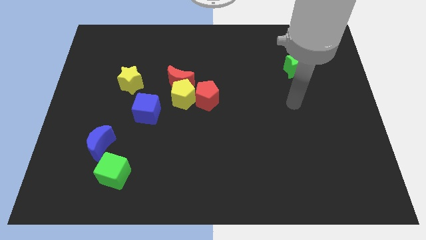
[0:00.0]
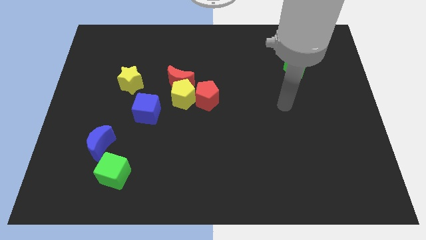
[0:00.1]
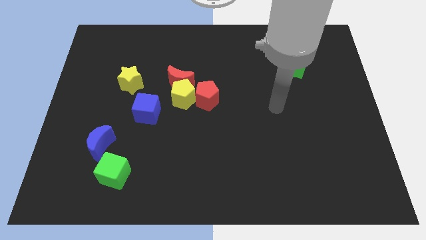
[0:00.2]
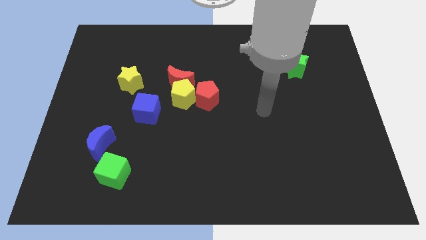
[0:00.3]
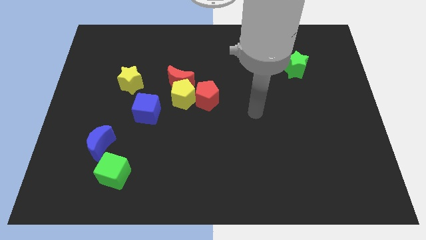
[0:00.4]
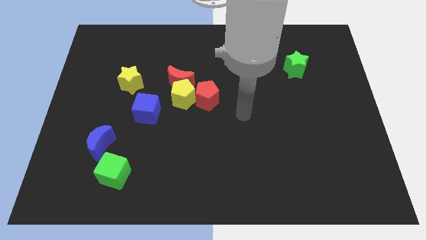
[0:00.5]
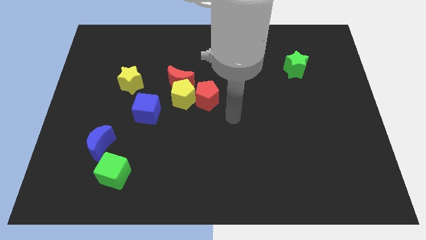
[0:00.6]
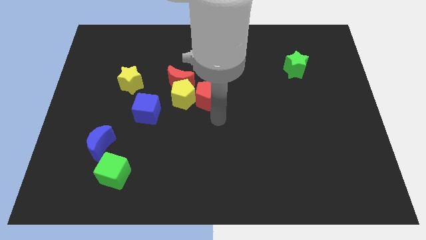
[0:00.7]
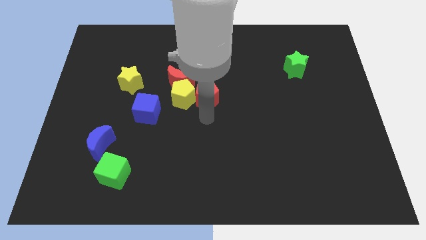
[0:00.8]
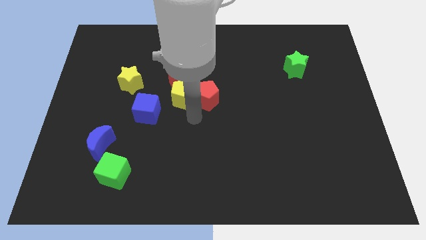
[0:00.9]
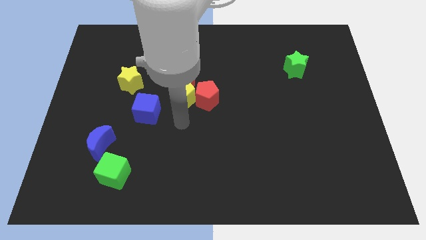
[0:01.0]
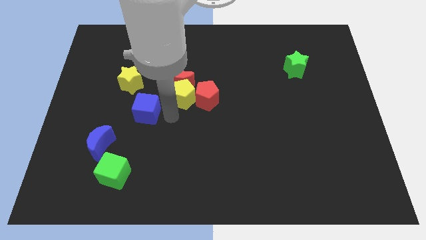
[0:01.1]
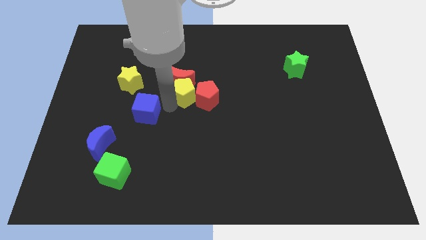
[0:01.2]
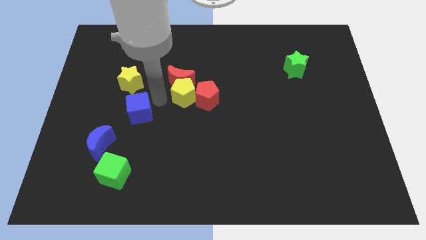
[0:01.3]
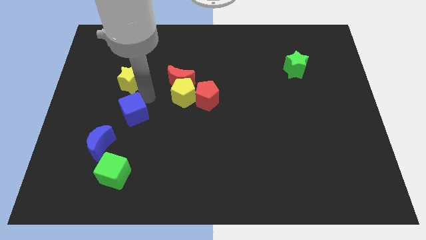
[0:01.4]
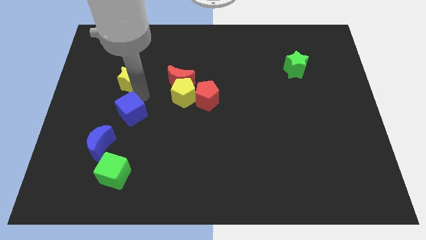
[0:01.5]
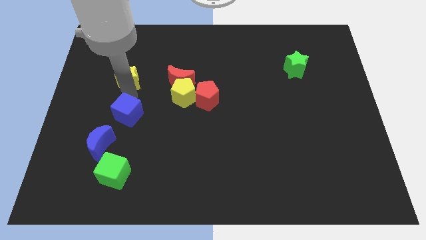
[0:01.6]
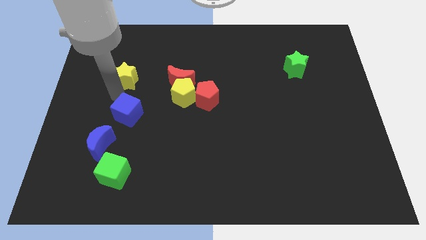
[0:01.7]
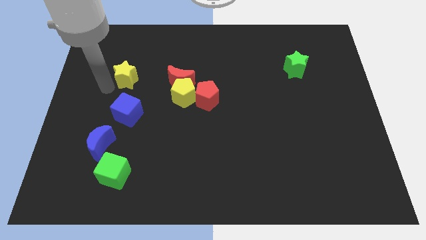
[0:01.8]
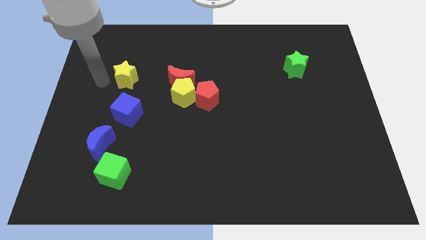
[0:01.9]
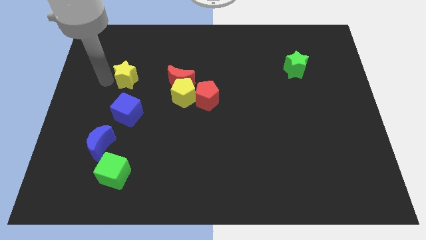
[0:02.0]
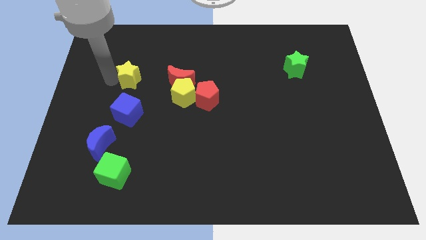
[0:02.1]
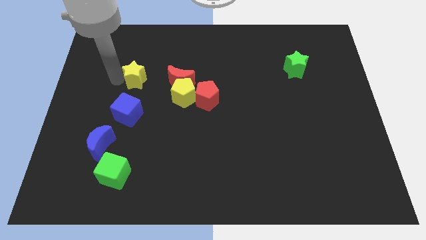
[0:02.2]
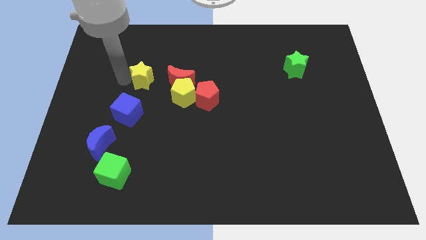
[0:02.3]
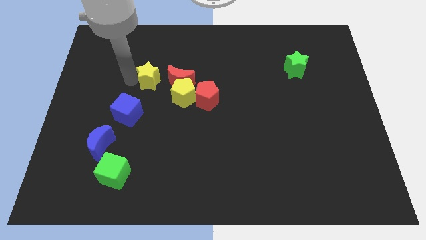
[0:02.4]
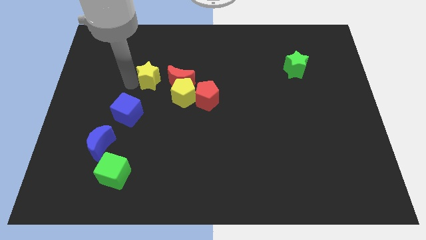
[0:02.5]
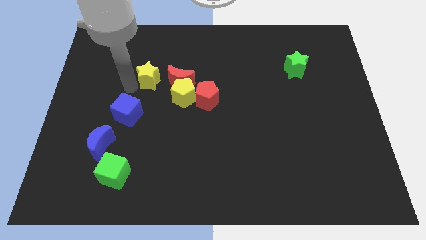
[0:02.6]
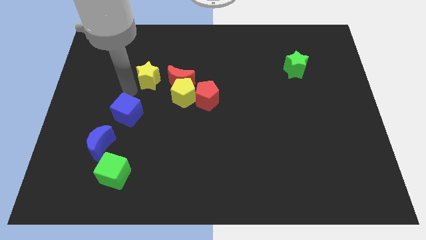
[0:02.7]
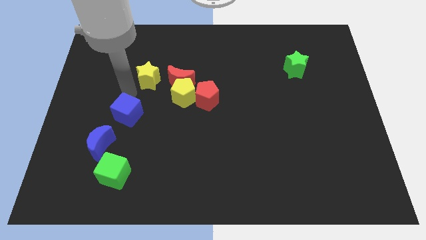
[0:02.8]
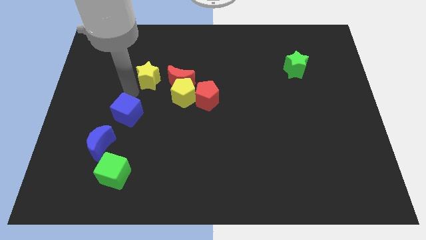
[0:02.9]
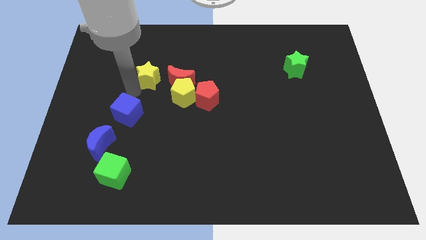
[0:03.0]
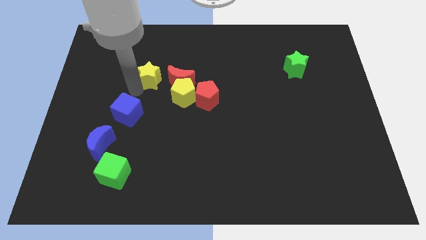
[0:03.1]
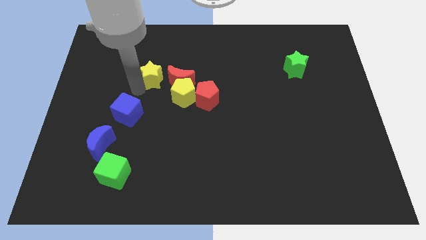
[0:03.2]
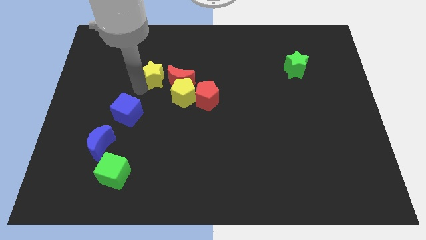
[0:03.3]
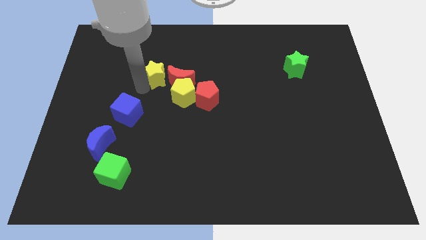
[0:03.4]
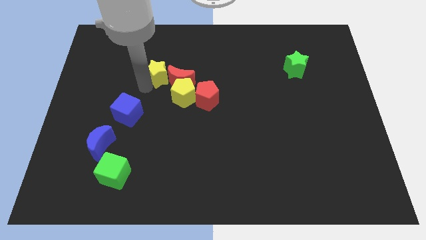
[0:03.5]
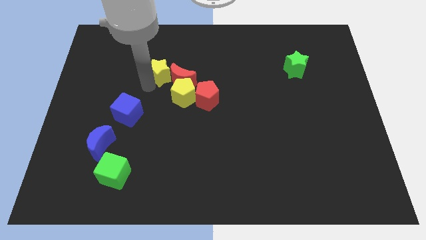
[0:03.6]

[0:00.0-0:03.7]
slide the yellow star a little right

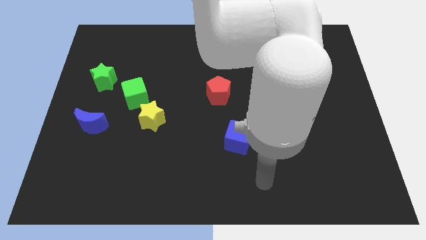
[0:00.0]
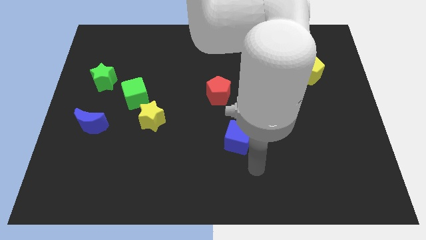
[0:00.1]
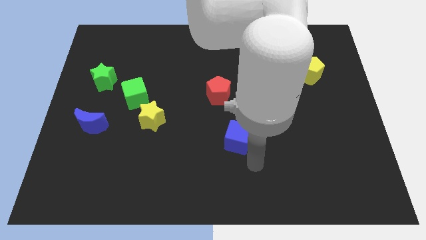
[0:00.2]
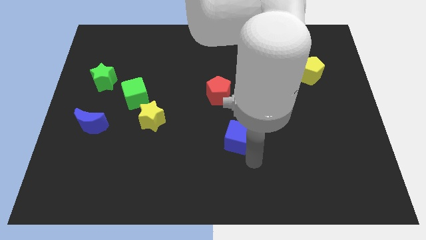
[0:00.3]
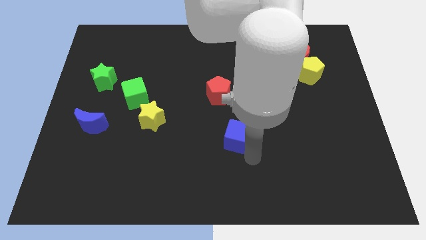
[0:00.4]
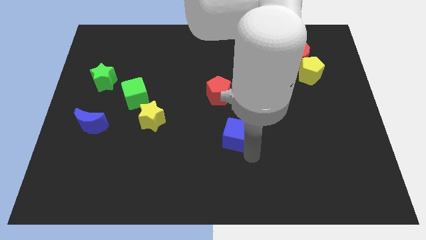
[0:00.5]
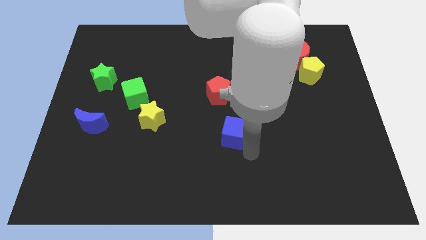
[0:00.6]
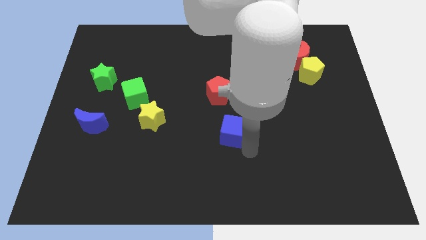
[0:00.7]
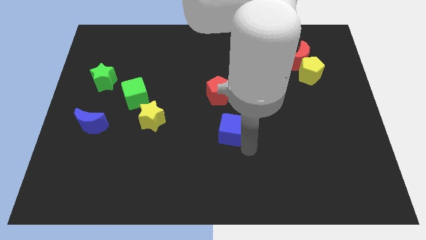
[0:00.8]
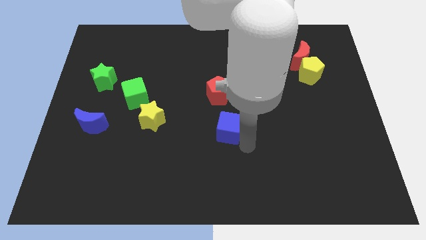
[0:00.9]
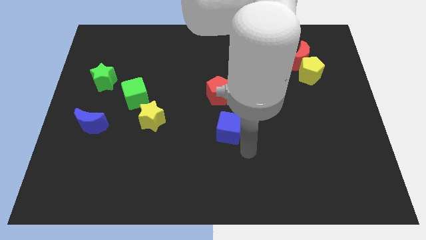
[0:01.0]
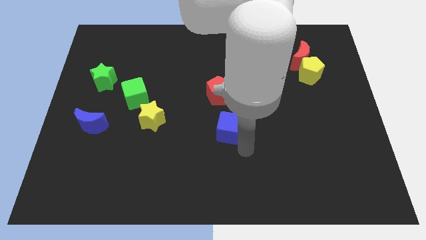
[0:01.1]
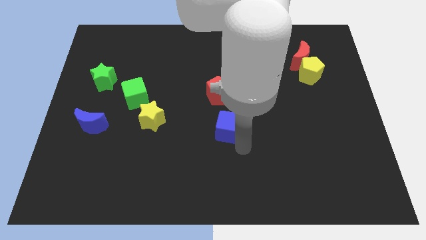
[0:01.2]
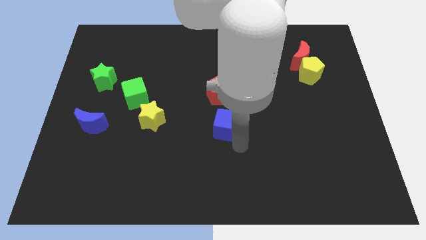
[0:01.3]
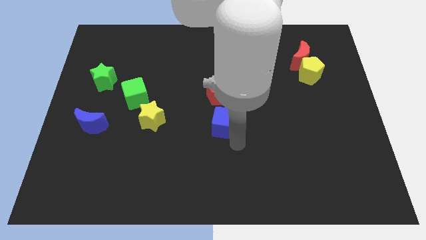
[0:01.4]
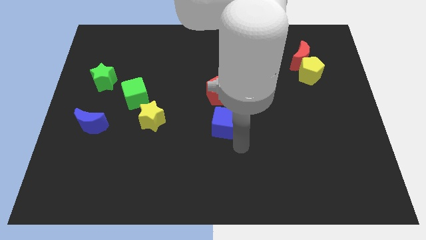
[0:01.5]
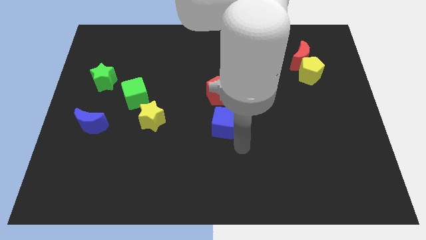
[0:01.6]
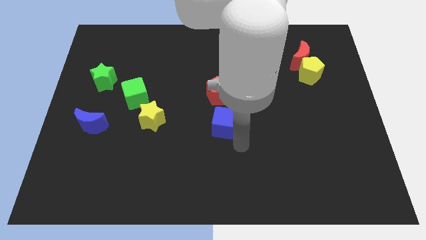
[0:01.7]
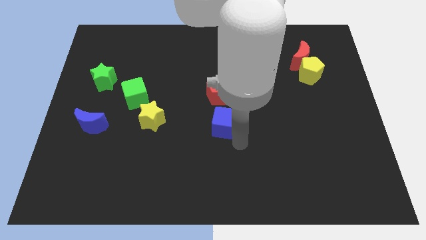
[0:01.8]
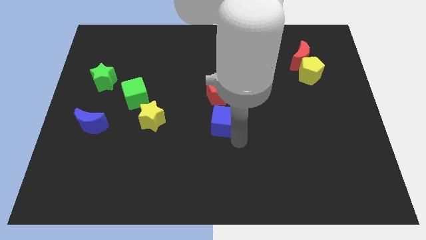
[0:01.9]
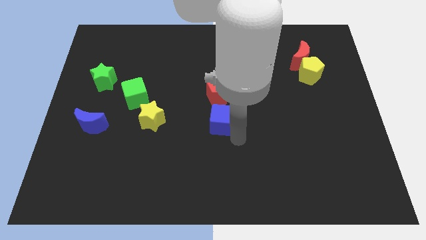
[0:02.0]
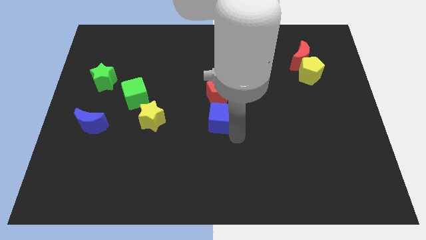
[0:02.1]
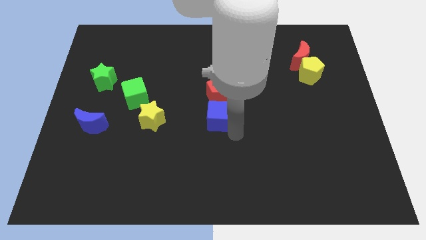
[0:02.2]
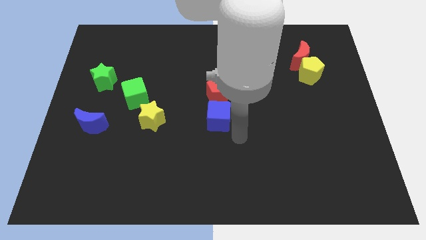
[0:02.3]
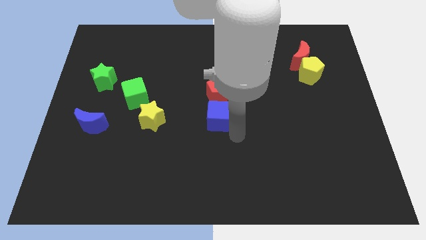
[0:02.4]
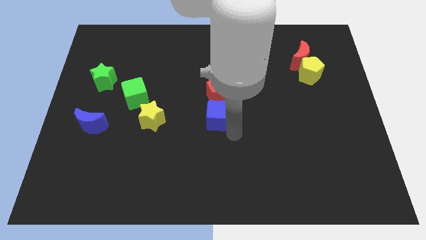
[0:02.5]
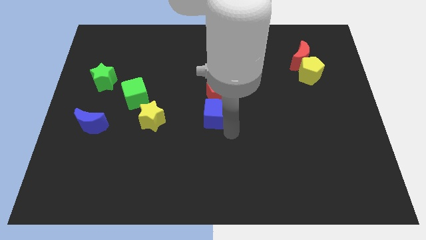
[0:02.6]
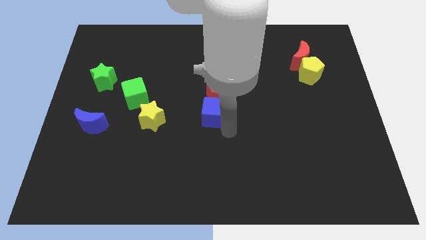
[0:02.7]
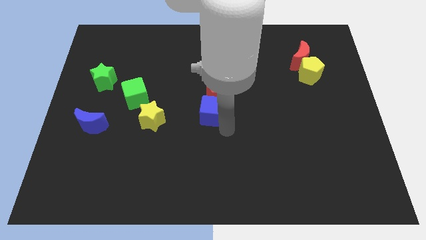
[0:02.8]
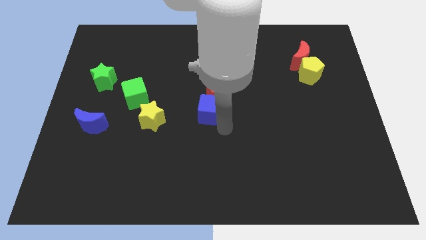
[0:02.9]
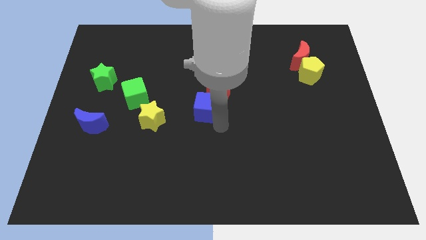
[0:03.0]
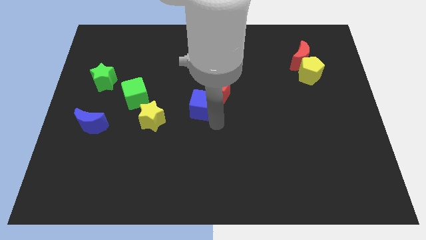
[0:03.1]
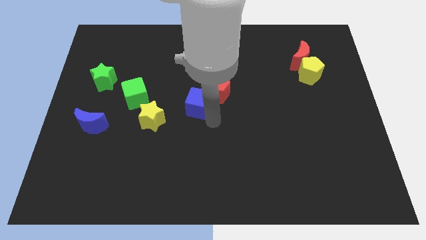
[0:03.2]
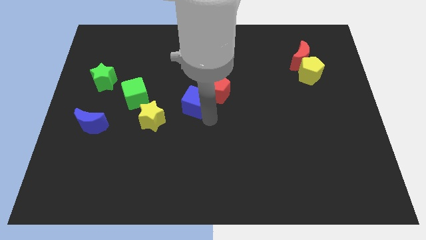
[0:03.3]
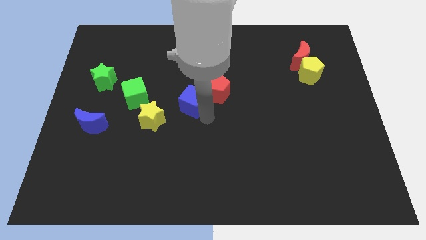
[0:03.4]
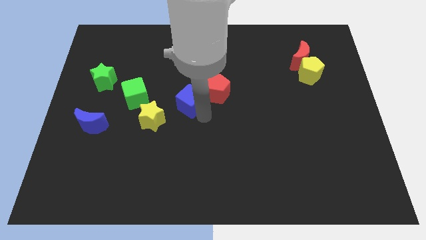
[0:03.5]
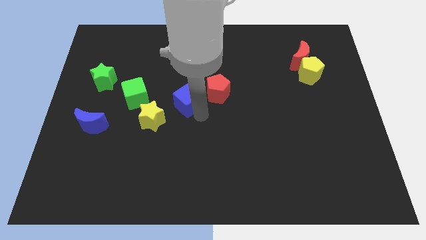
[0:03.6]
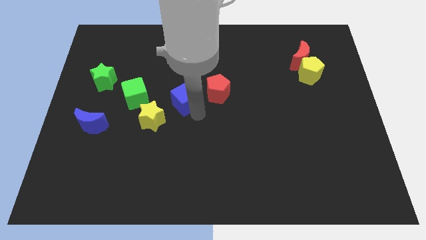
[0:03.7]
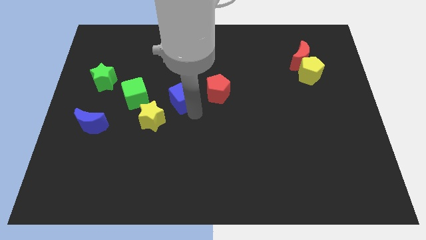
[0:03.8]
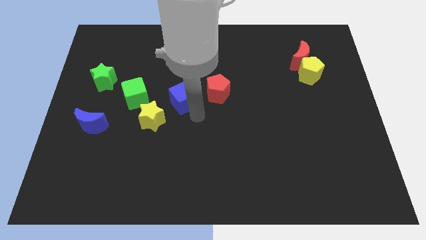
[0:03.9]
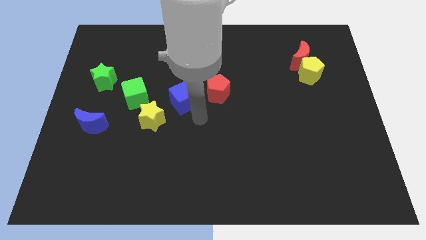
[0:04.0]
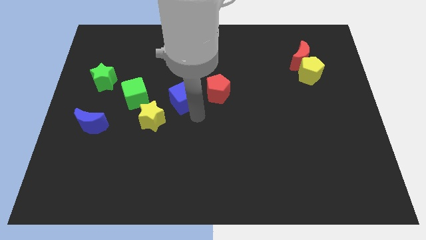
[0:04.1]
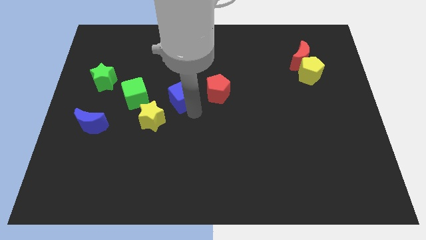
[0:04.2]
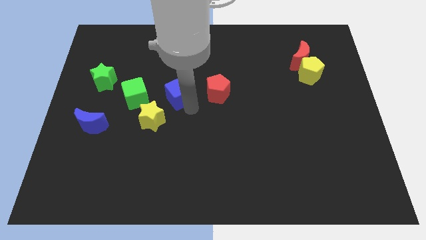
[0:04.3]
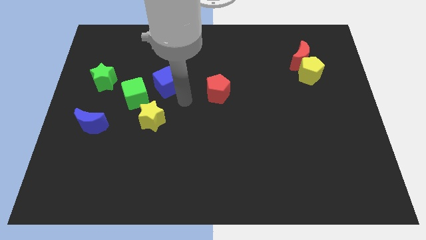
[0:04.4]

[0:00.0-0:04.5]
slide the blue cube upwards and then to the left
